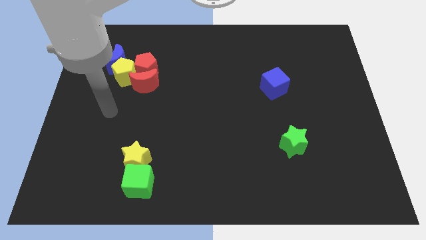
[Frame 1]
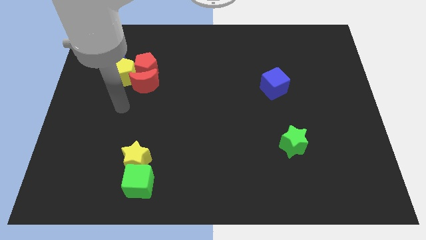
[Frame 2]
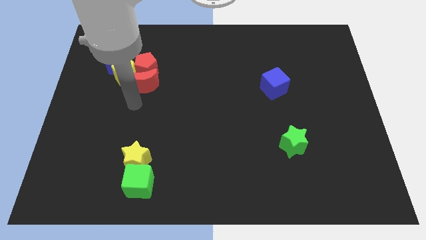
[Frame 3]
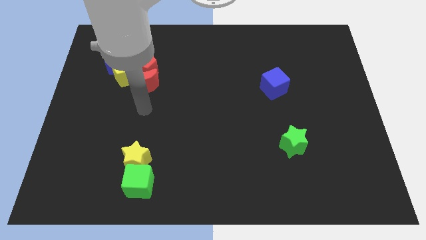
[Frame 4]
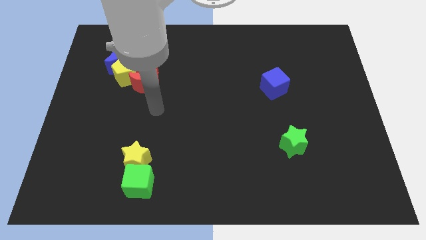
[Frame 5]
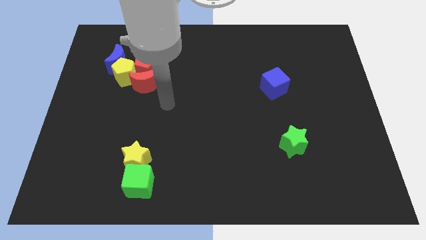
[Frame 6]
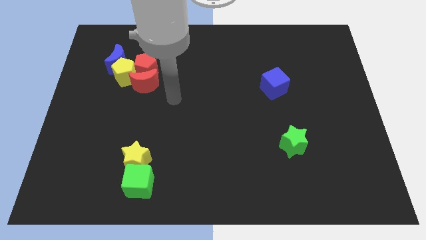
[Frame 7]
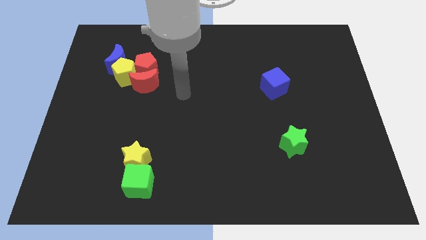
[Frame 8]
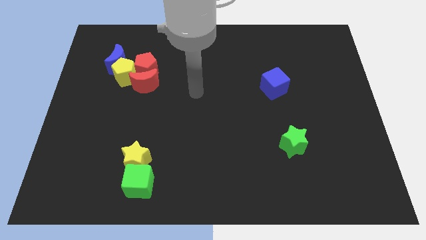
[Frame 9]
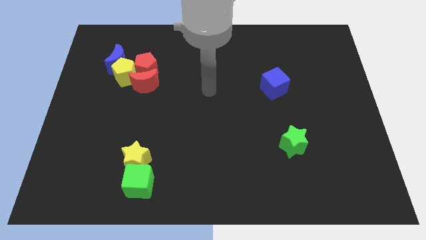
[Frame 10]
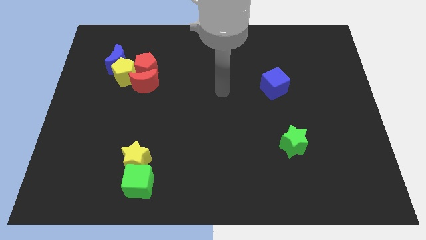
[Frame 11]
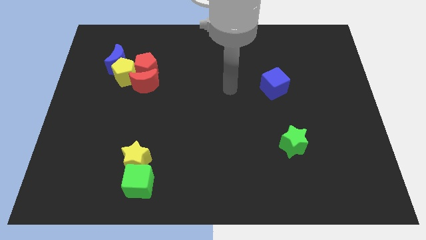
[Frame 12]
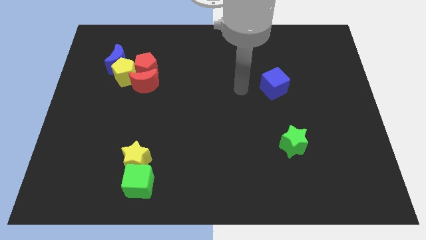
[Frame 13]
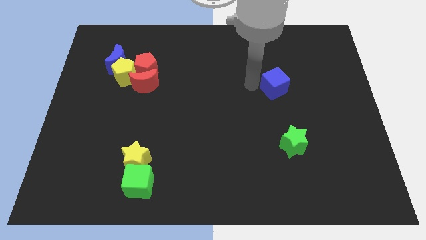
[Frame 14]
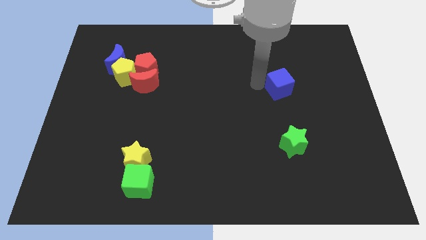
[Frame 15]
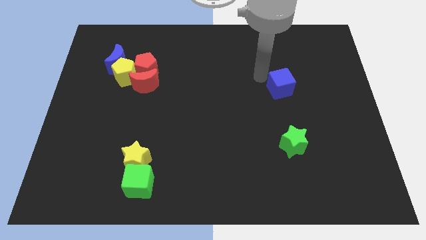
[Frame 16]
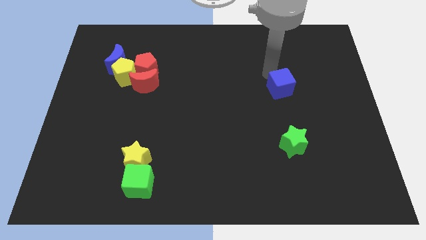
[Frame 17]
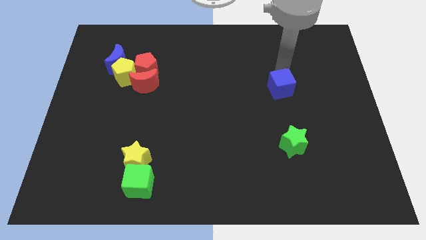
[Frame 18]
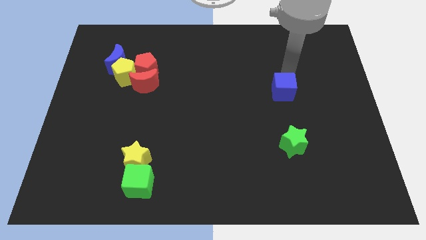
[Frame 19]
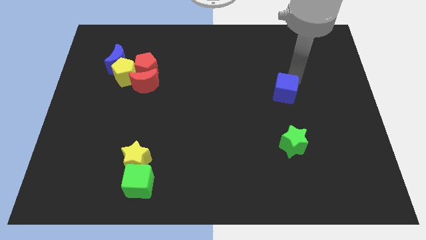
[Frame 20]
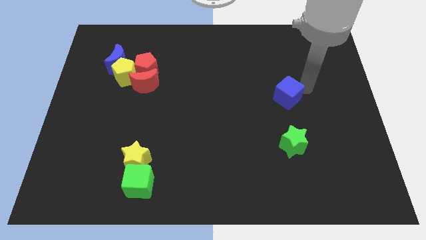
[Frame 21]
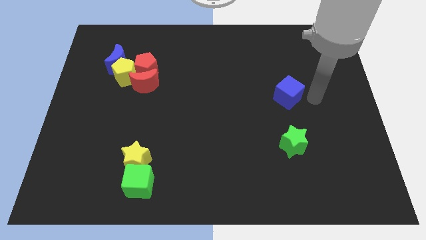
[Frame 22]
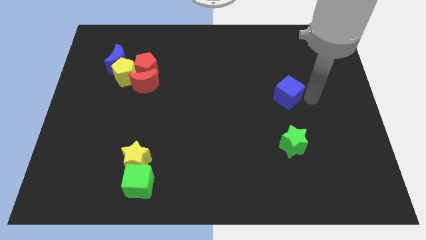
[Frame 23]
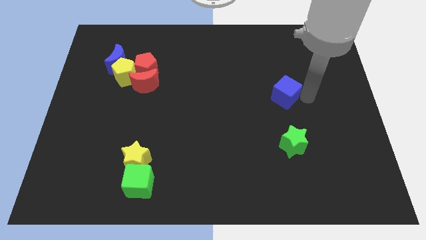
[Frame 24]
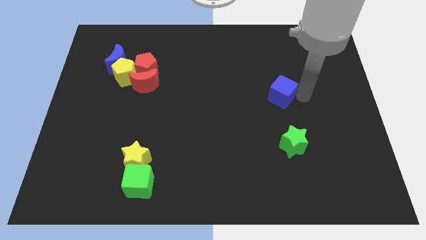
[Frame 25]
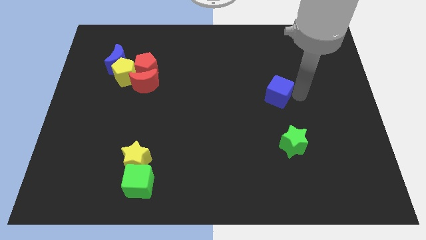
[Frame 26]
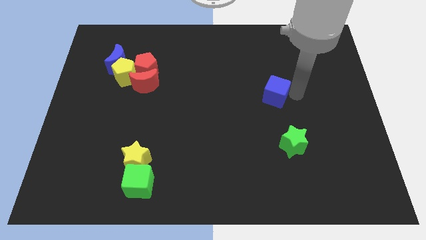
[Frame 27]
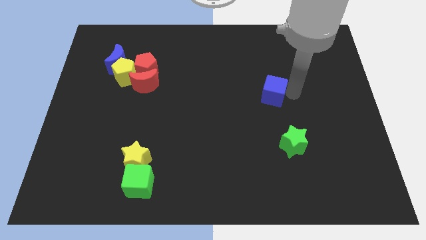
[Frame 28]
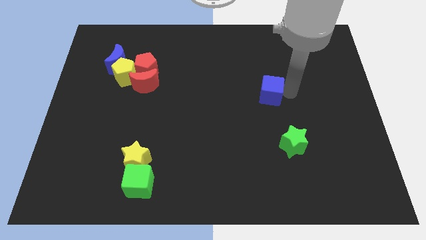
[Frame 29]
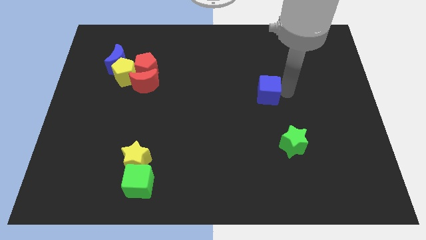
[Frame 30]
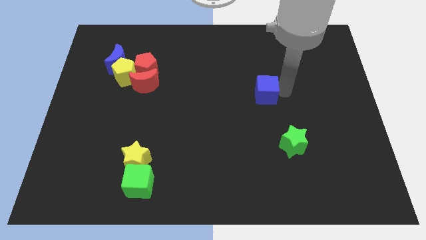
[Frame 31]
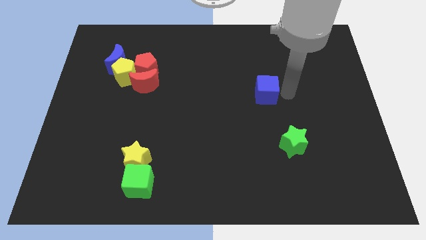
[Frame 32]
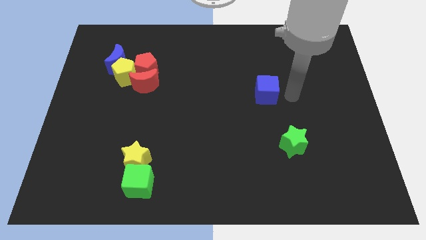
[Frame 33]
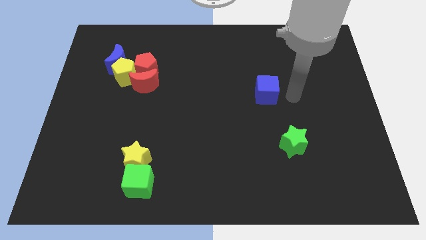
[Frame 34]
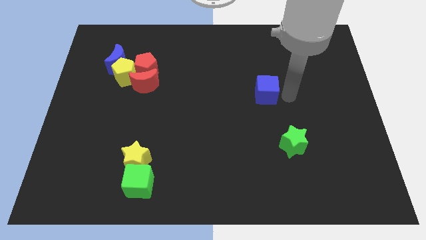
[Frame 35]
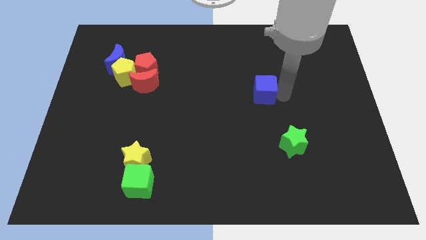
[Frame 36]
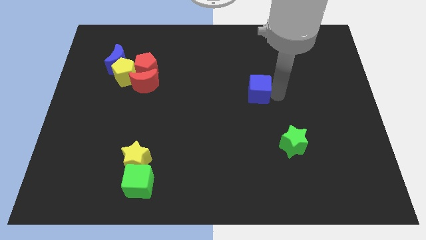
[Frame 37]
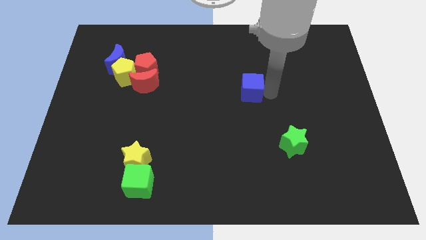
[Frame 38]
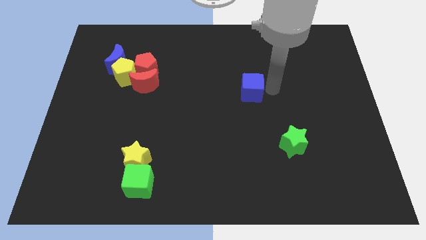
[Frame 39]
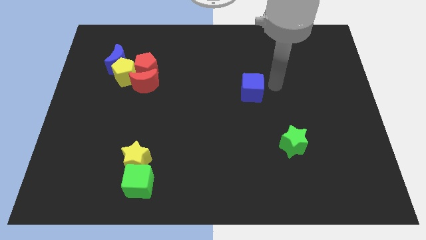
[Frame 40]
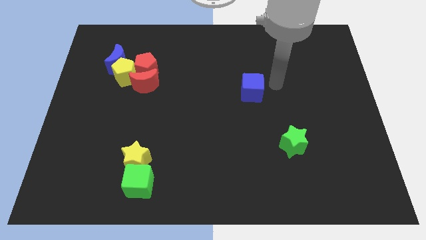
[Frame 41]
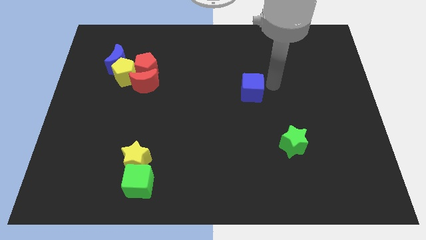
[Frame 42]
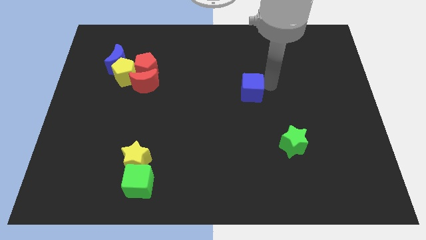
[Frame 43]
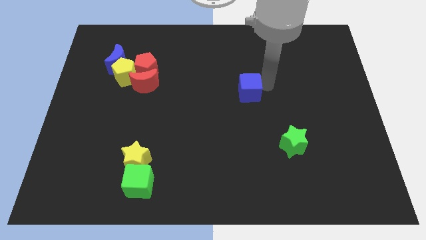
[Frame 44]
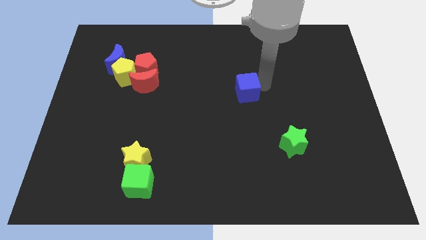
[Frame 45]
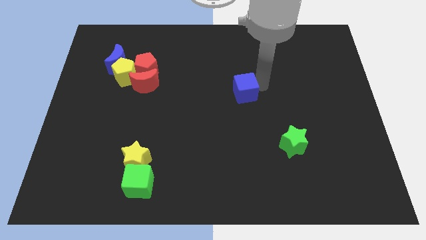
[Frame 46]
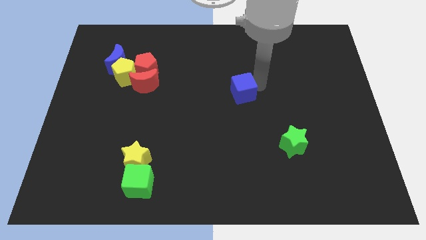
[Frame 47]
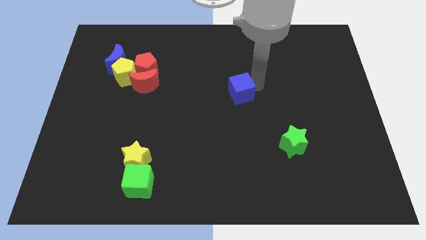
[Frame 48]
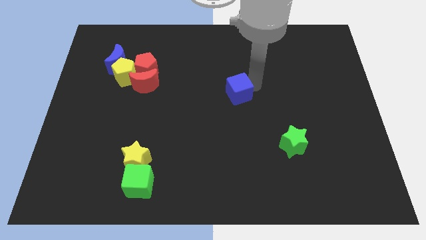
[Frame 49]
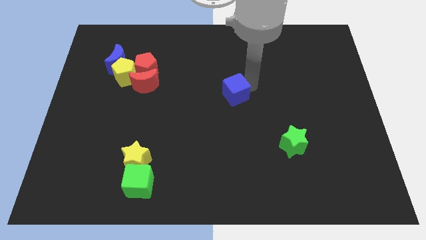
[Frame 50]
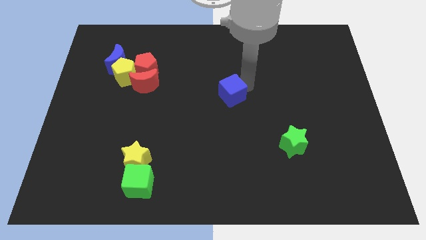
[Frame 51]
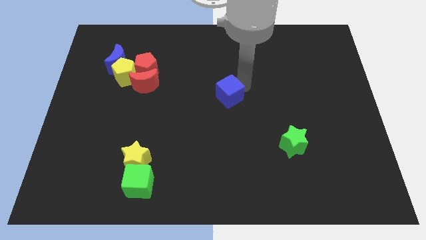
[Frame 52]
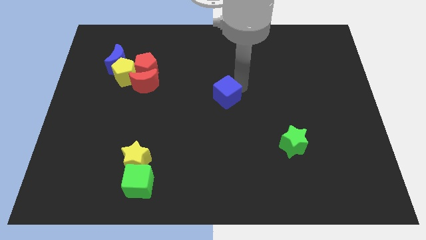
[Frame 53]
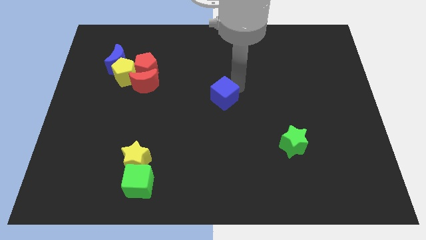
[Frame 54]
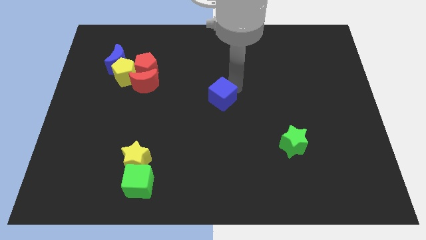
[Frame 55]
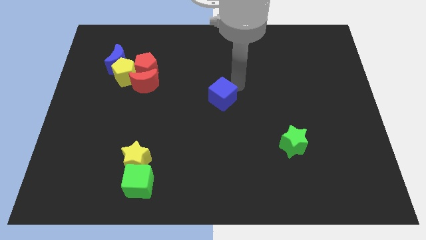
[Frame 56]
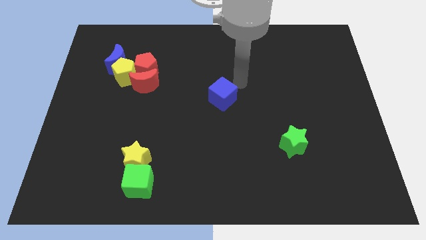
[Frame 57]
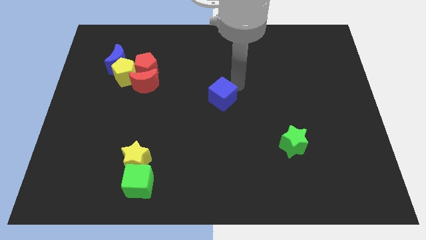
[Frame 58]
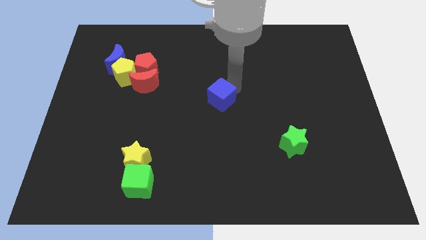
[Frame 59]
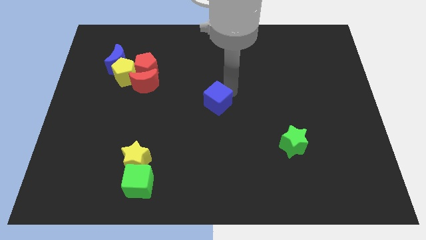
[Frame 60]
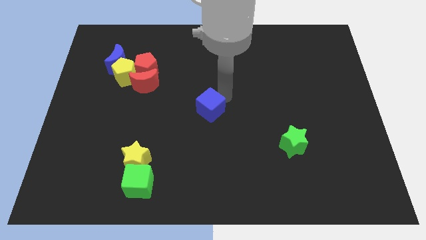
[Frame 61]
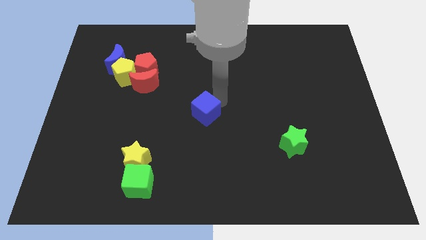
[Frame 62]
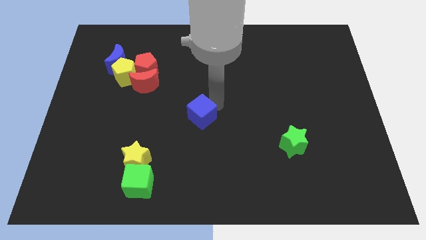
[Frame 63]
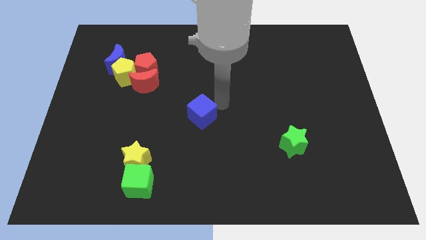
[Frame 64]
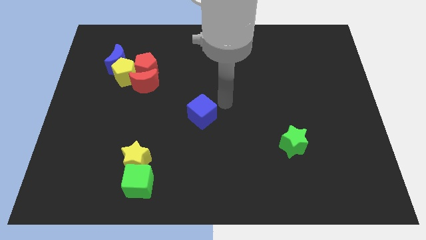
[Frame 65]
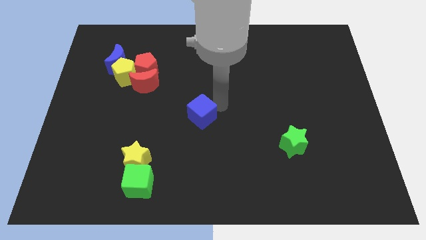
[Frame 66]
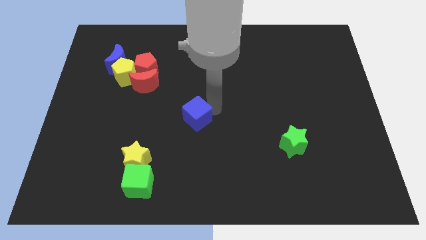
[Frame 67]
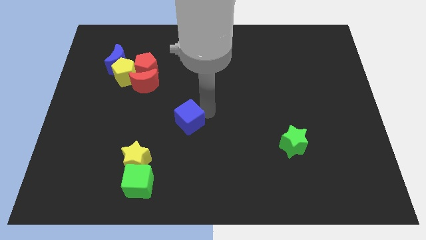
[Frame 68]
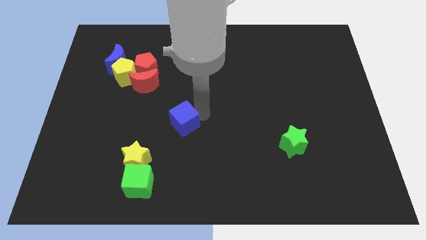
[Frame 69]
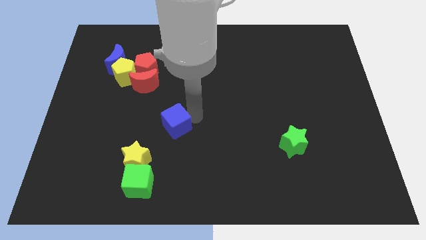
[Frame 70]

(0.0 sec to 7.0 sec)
slide the blue cube diagonally up and to the right of the yellow star
